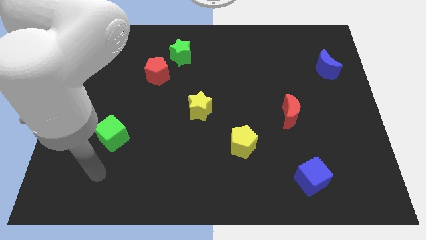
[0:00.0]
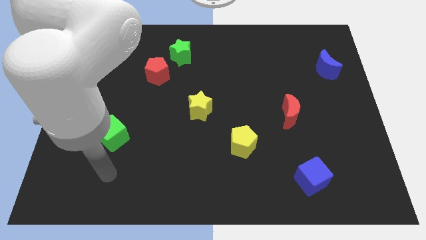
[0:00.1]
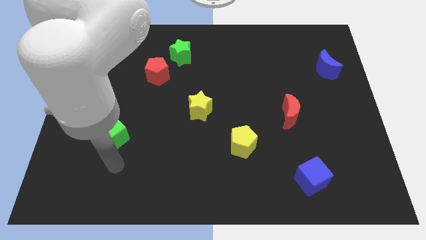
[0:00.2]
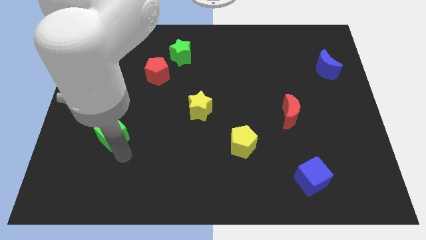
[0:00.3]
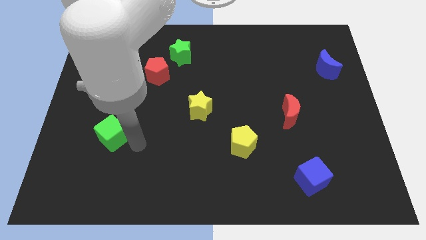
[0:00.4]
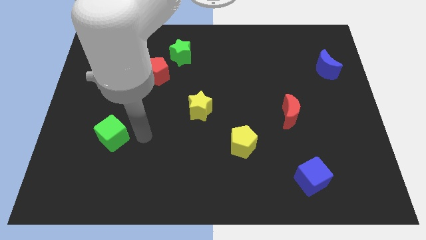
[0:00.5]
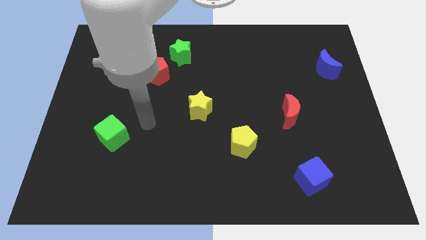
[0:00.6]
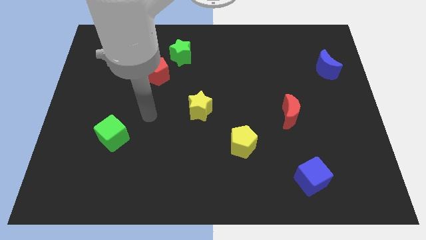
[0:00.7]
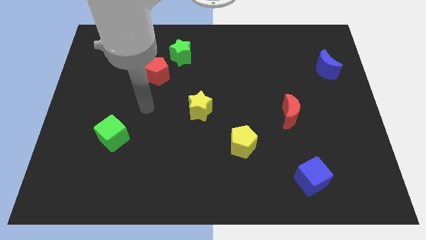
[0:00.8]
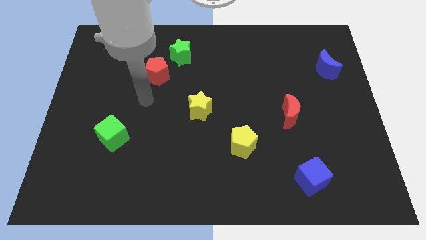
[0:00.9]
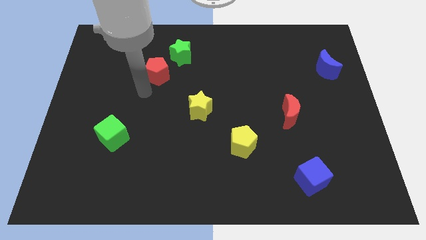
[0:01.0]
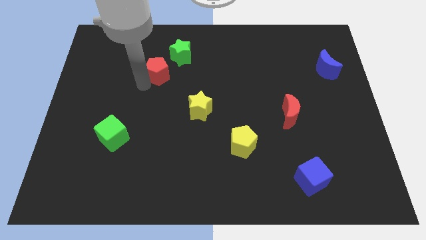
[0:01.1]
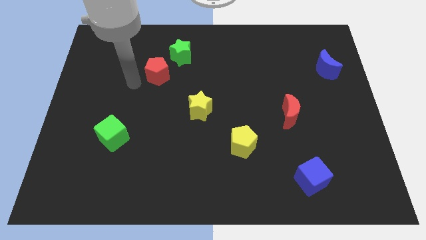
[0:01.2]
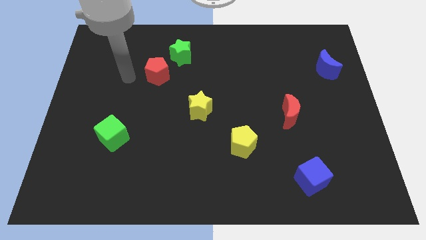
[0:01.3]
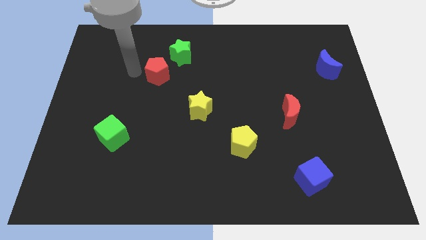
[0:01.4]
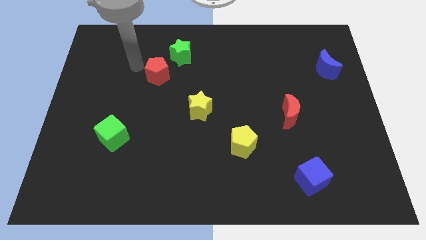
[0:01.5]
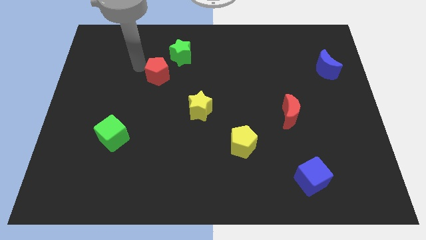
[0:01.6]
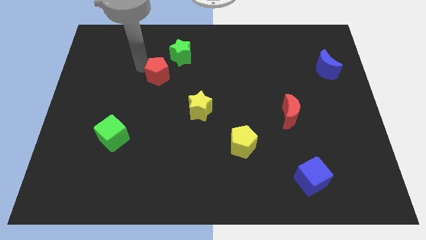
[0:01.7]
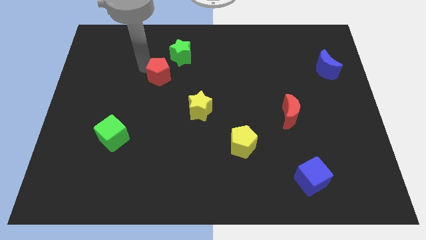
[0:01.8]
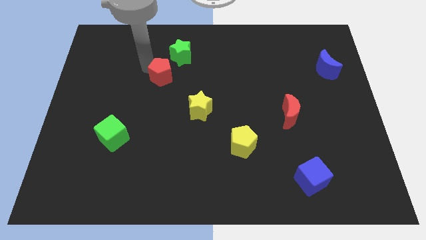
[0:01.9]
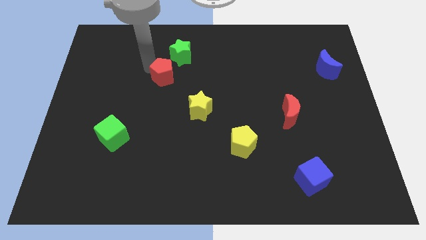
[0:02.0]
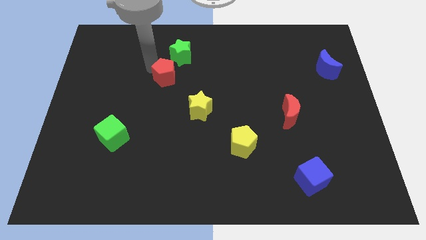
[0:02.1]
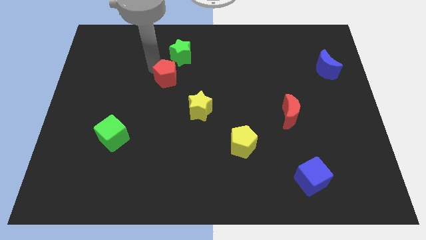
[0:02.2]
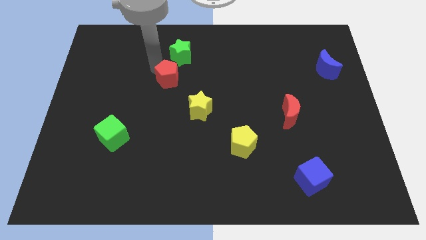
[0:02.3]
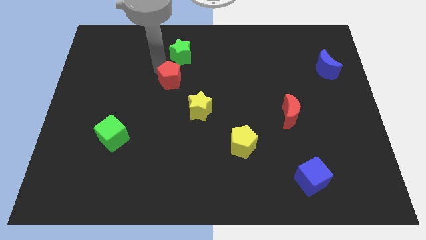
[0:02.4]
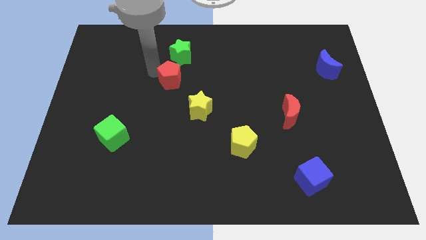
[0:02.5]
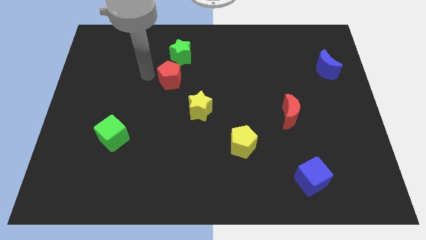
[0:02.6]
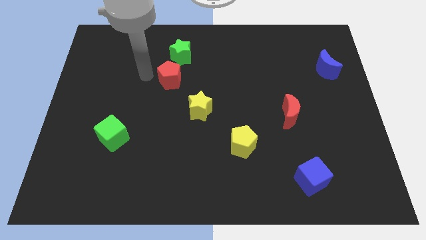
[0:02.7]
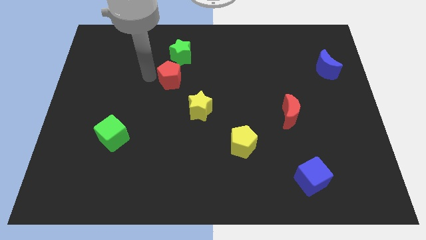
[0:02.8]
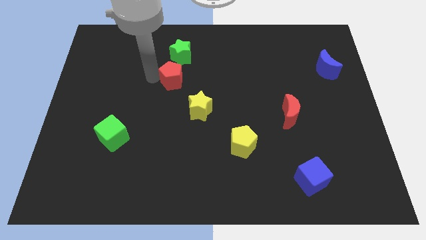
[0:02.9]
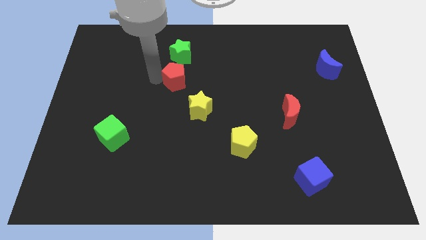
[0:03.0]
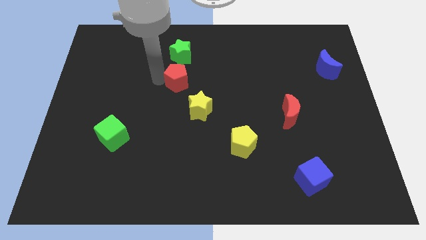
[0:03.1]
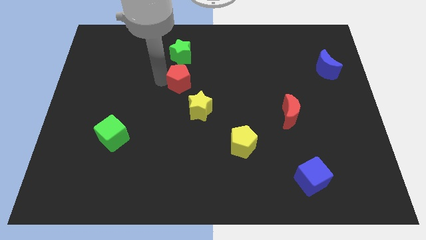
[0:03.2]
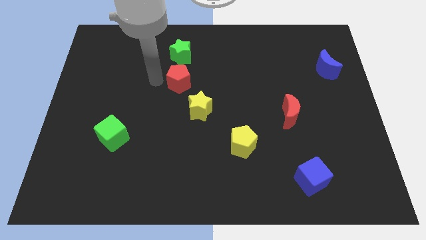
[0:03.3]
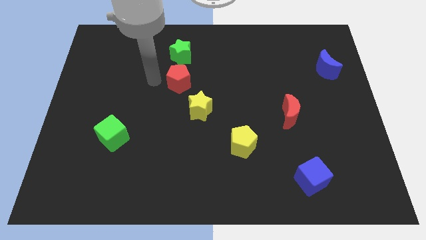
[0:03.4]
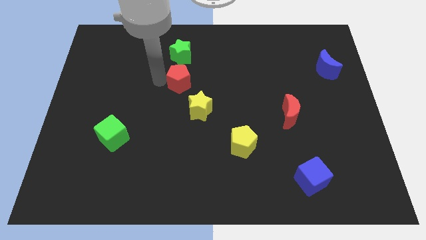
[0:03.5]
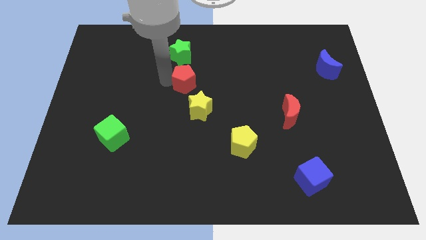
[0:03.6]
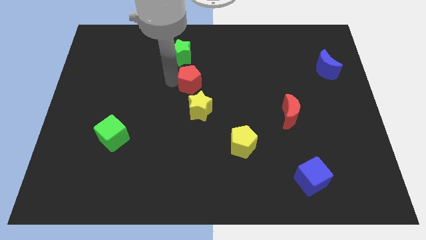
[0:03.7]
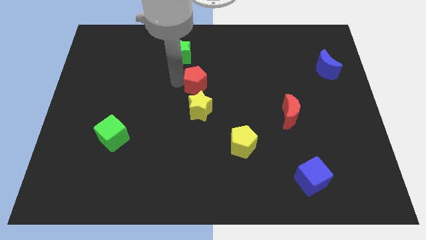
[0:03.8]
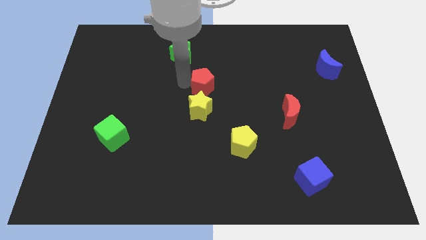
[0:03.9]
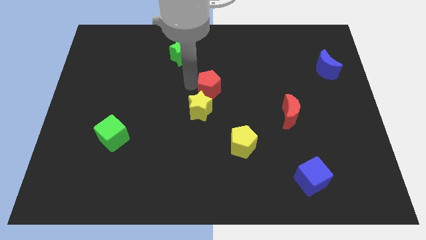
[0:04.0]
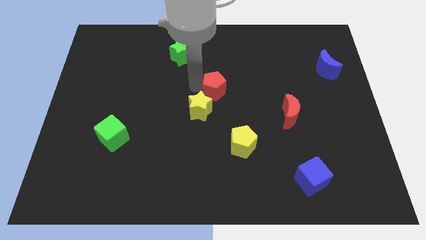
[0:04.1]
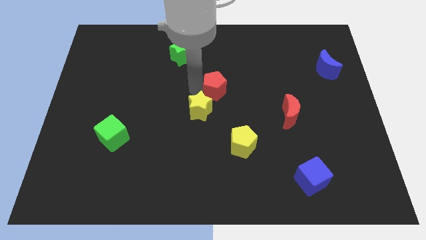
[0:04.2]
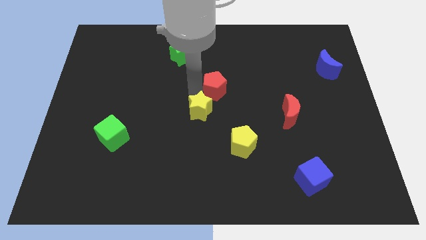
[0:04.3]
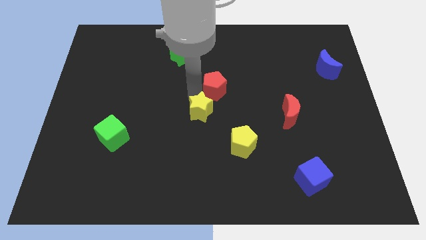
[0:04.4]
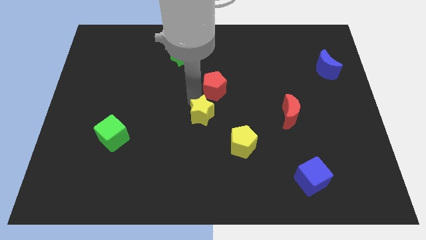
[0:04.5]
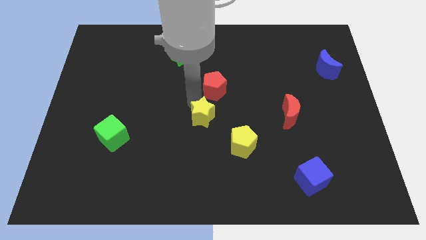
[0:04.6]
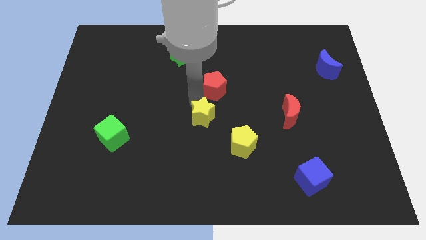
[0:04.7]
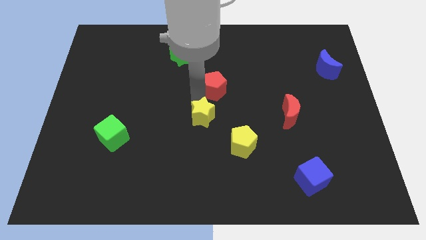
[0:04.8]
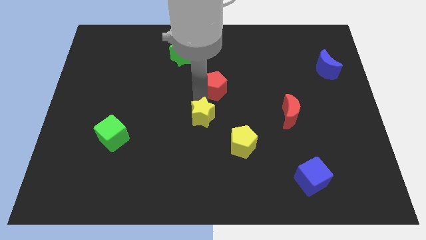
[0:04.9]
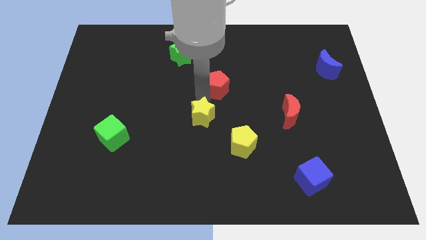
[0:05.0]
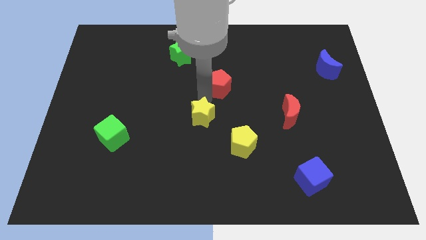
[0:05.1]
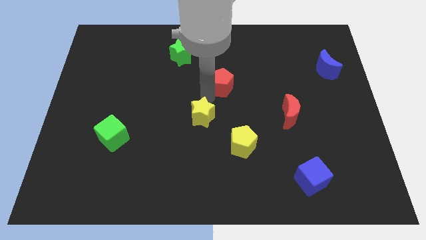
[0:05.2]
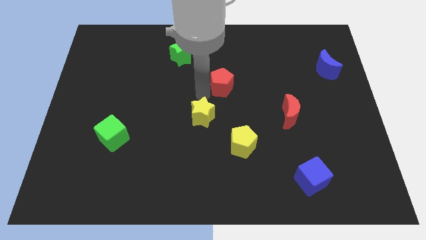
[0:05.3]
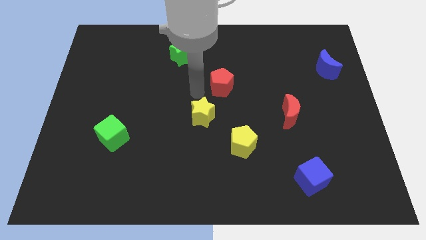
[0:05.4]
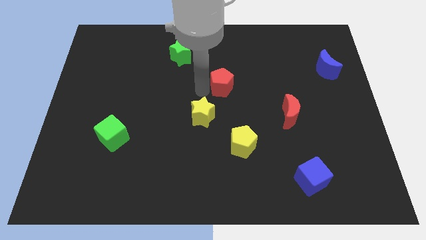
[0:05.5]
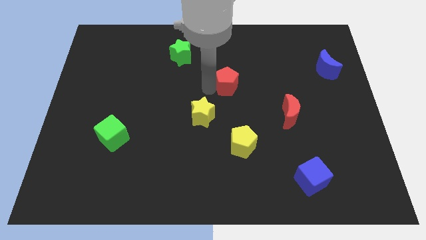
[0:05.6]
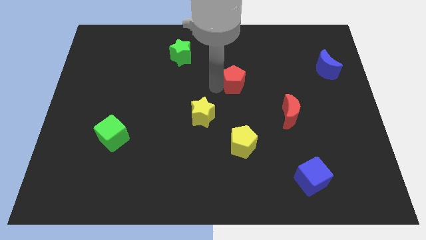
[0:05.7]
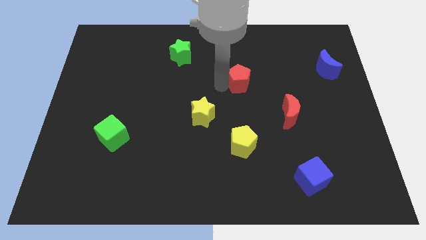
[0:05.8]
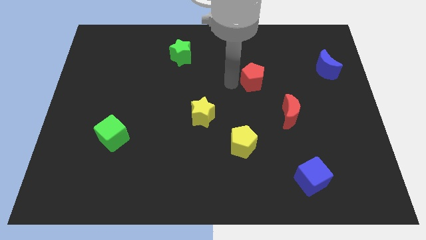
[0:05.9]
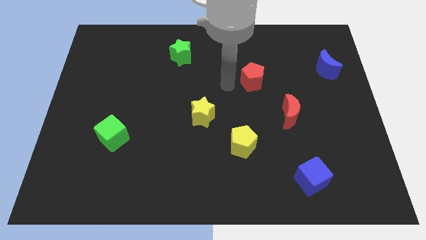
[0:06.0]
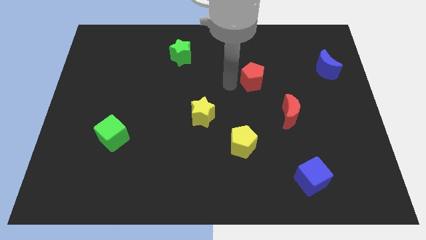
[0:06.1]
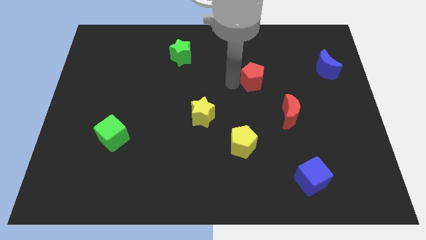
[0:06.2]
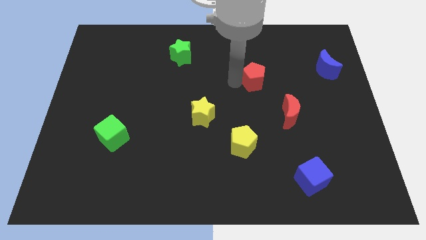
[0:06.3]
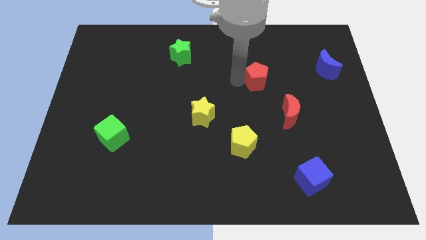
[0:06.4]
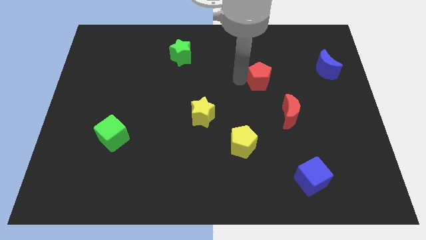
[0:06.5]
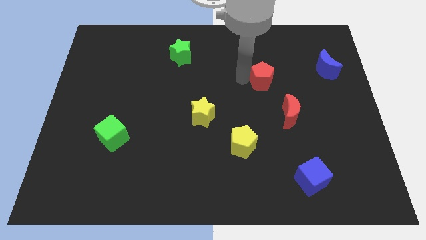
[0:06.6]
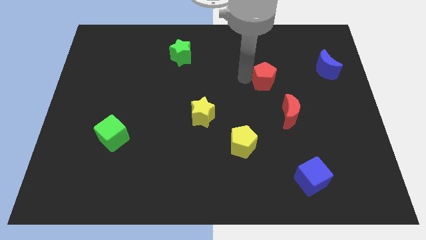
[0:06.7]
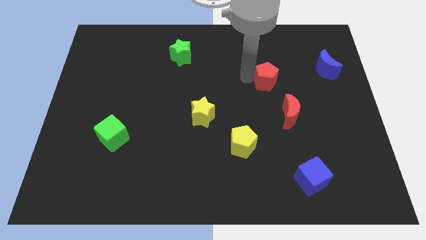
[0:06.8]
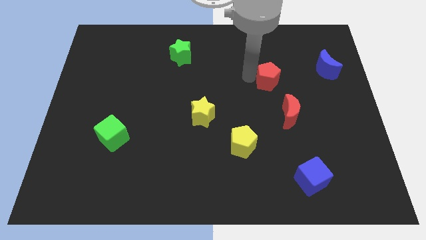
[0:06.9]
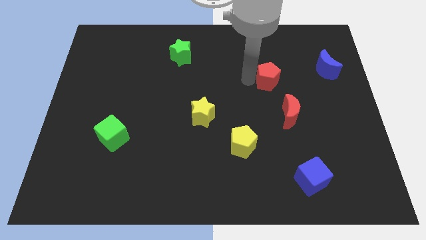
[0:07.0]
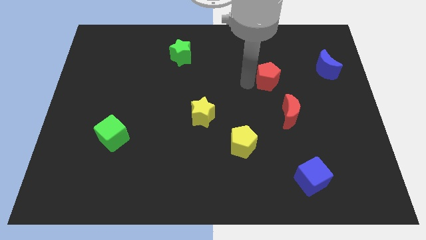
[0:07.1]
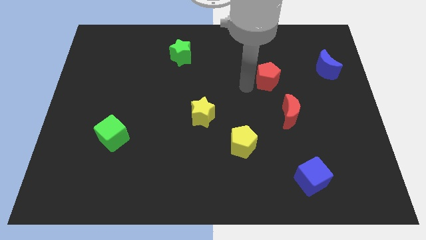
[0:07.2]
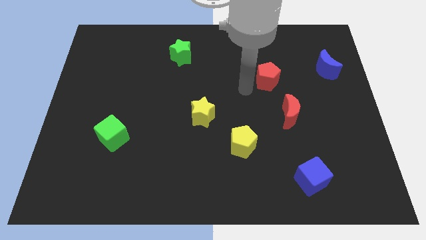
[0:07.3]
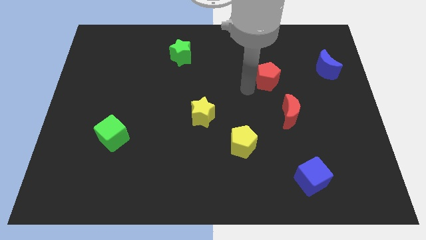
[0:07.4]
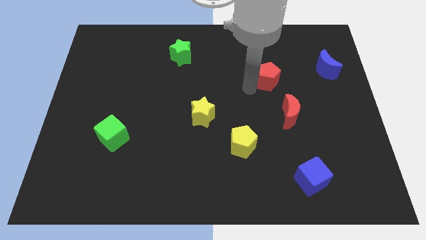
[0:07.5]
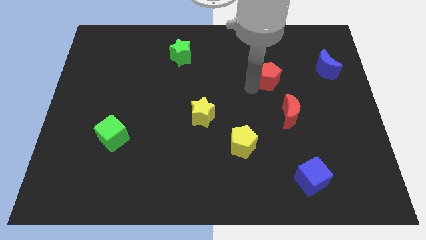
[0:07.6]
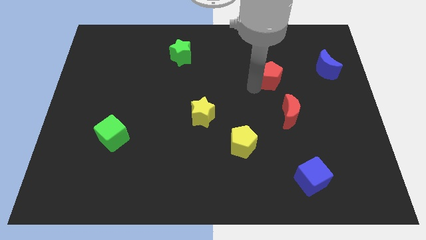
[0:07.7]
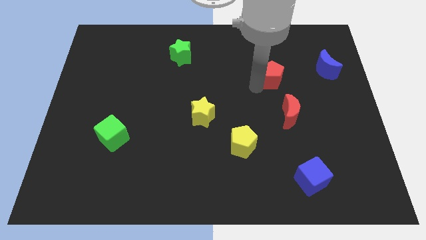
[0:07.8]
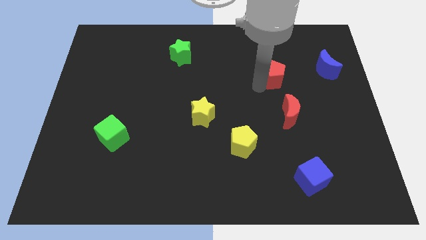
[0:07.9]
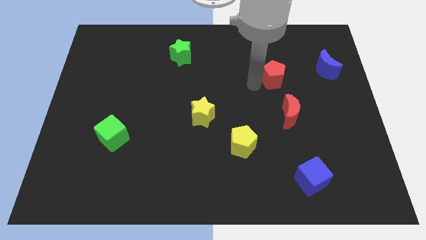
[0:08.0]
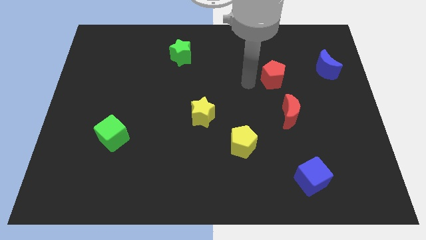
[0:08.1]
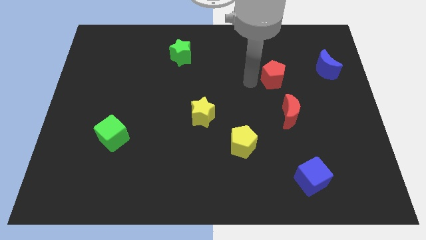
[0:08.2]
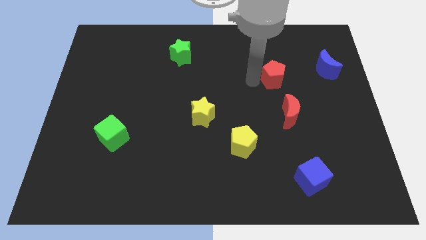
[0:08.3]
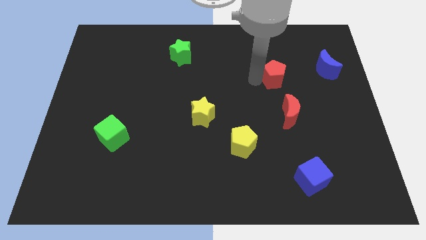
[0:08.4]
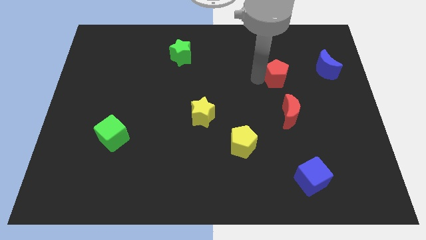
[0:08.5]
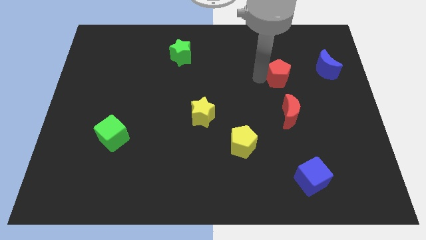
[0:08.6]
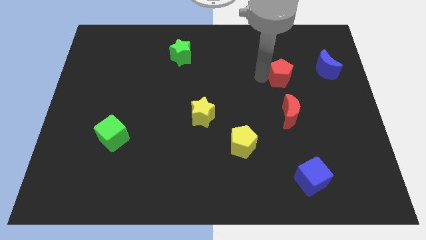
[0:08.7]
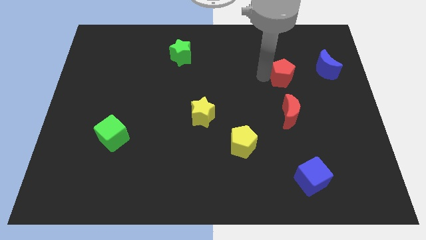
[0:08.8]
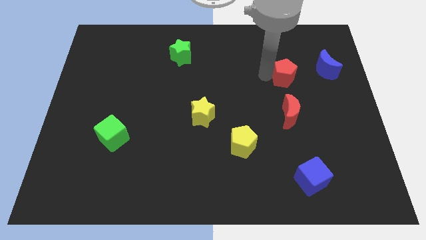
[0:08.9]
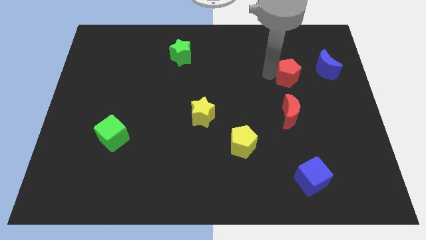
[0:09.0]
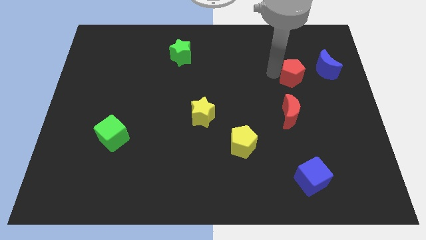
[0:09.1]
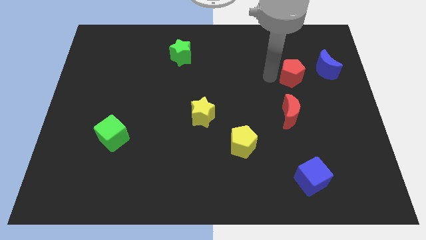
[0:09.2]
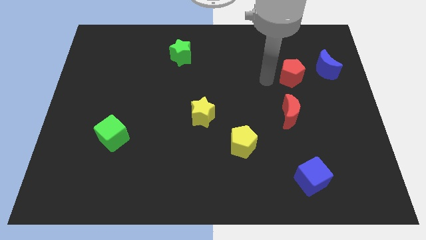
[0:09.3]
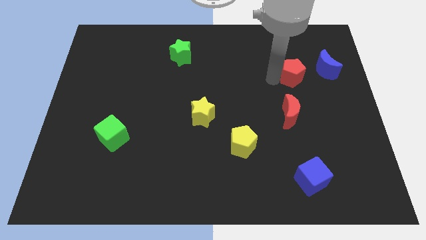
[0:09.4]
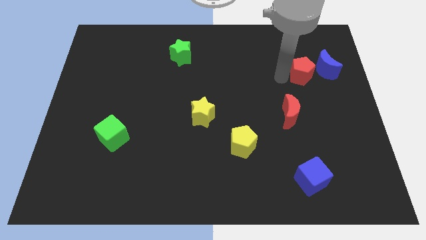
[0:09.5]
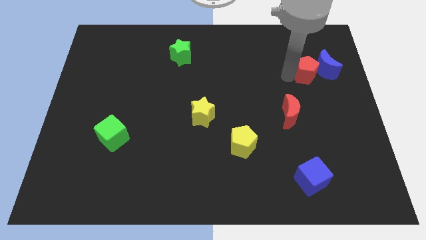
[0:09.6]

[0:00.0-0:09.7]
slide the red pentagon to the blue moon
